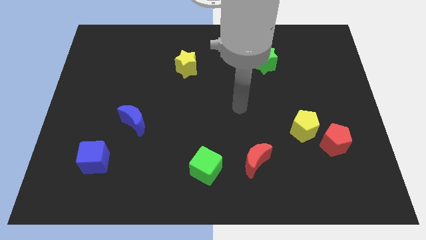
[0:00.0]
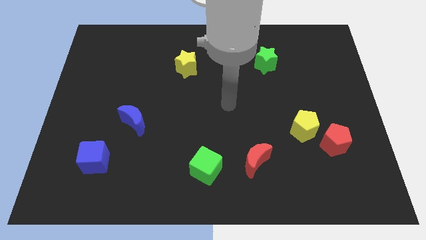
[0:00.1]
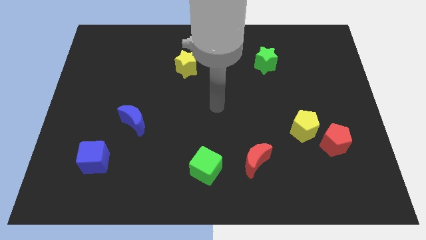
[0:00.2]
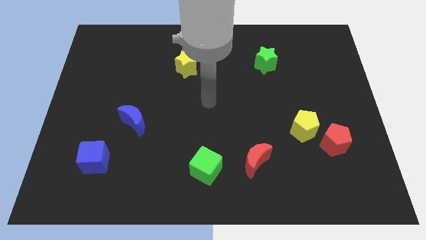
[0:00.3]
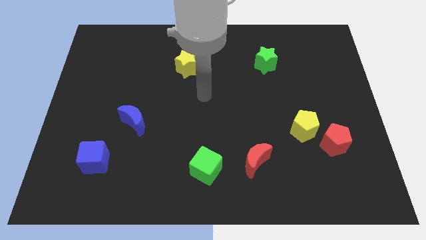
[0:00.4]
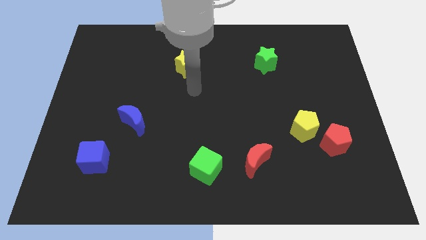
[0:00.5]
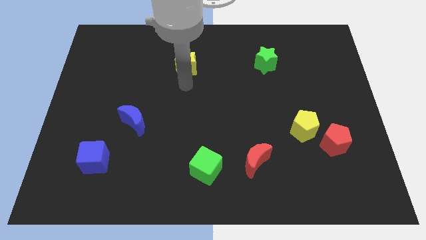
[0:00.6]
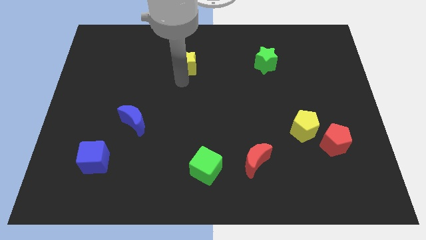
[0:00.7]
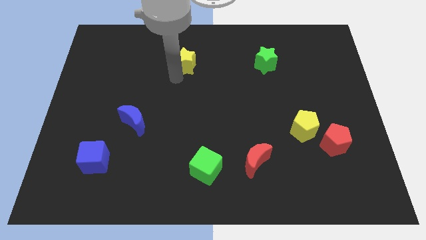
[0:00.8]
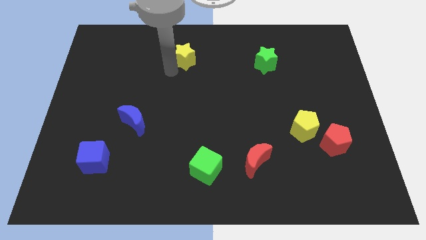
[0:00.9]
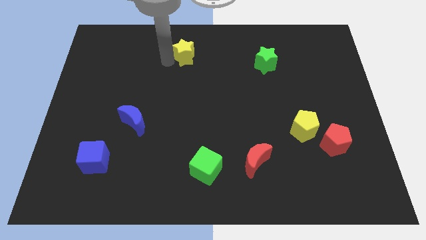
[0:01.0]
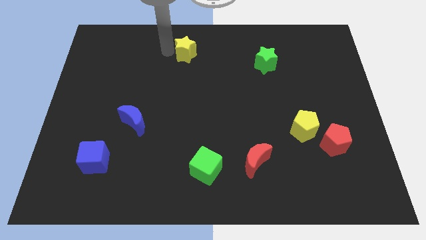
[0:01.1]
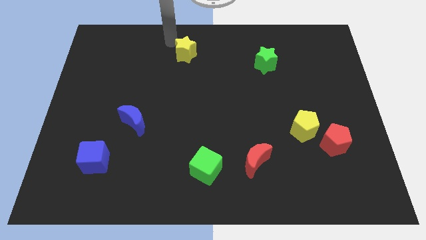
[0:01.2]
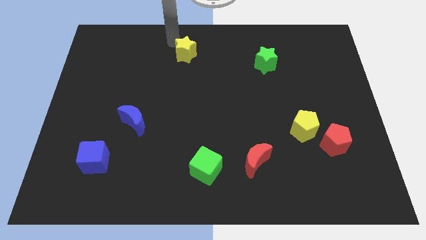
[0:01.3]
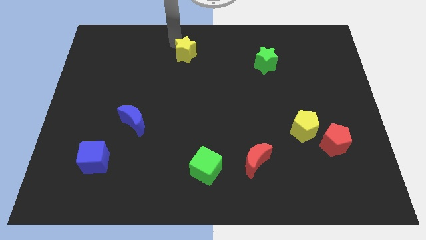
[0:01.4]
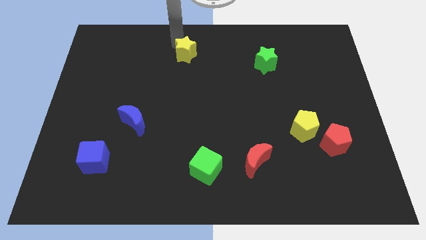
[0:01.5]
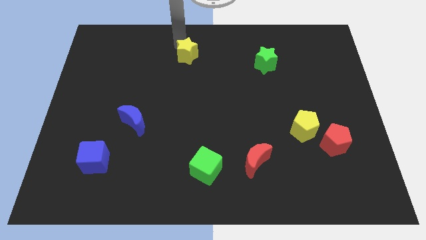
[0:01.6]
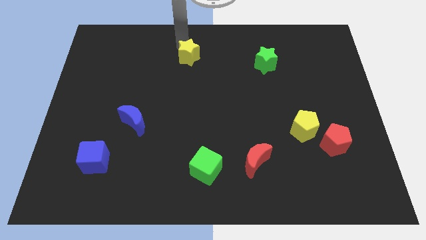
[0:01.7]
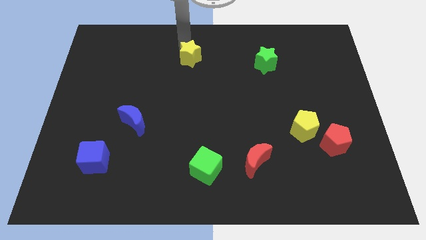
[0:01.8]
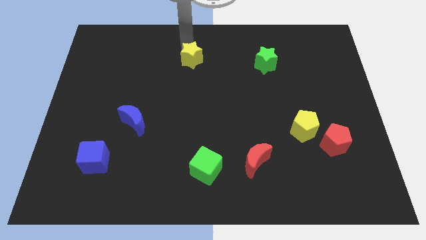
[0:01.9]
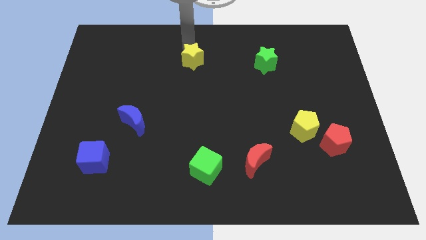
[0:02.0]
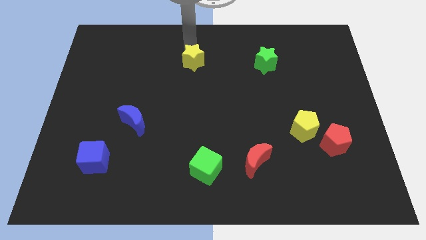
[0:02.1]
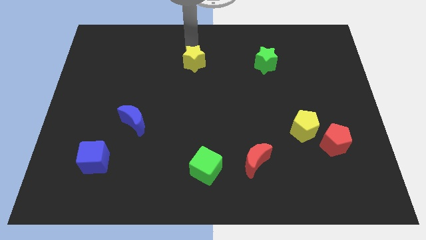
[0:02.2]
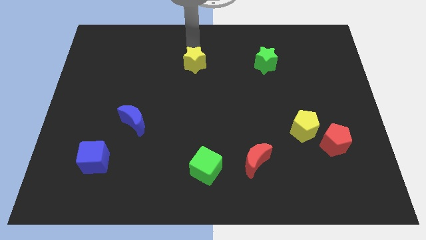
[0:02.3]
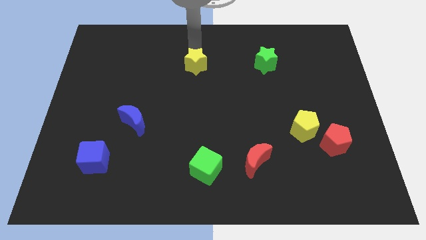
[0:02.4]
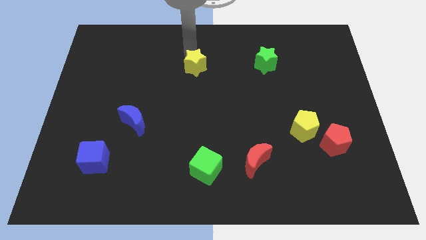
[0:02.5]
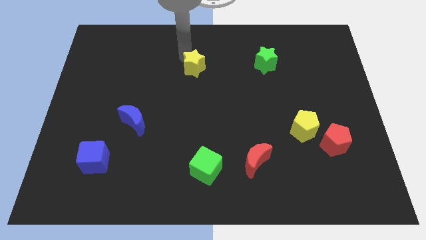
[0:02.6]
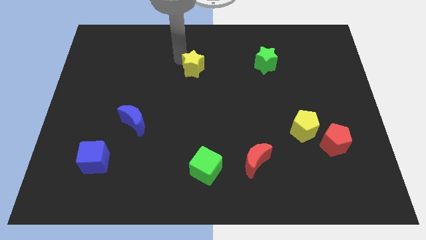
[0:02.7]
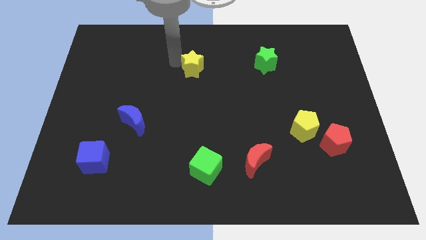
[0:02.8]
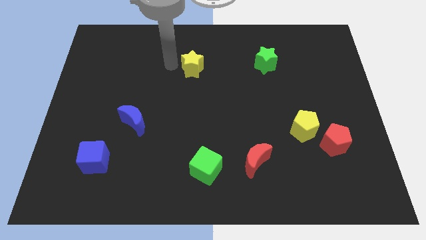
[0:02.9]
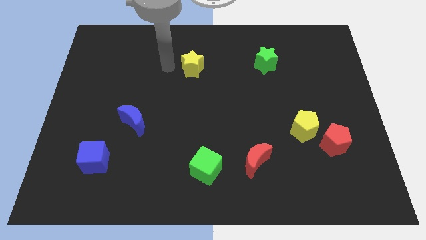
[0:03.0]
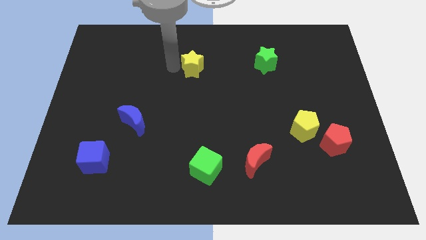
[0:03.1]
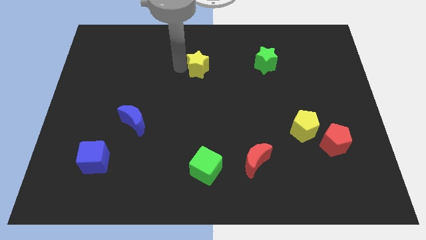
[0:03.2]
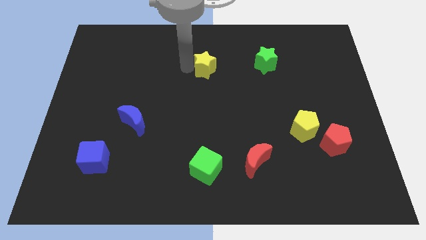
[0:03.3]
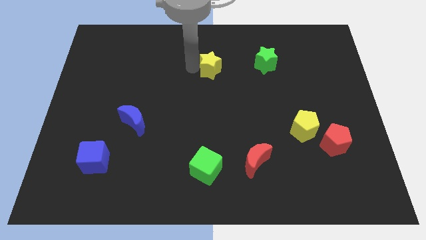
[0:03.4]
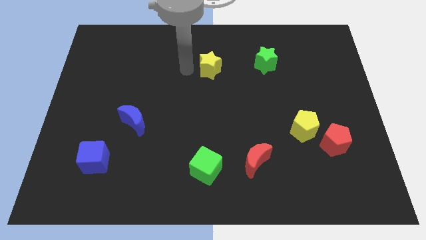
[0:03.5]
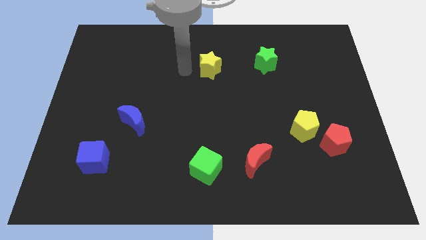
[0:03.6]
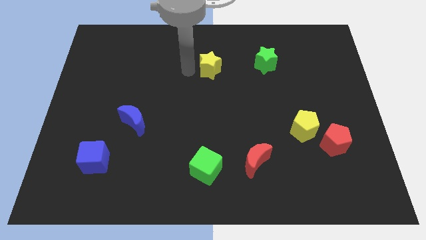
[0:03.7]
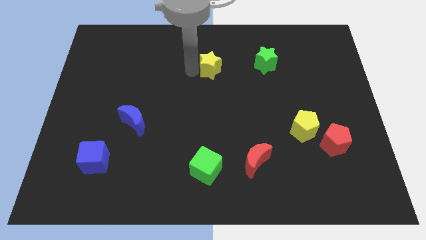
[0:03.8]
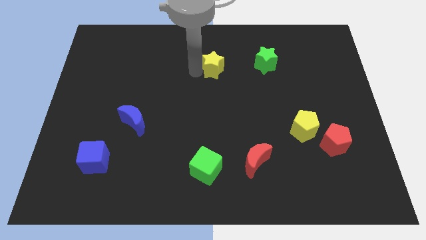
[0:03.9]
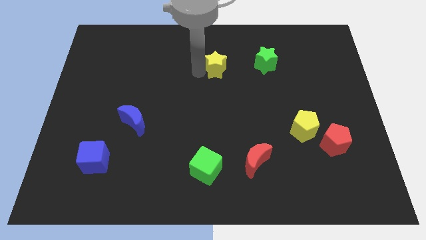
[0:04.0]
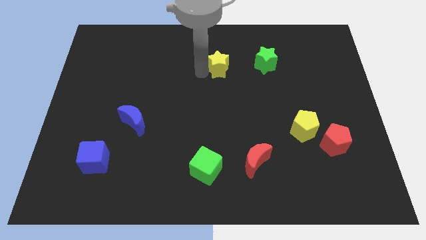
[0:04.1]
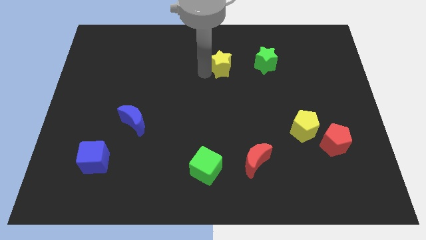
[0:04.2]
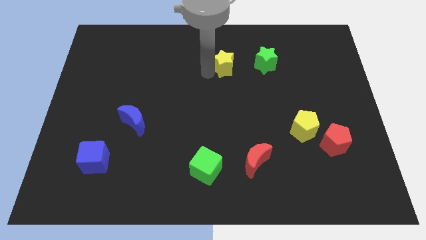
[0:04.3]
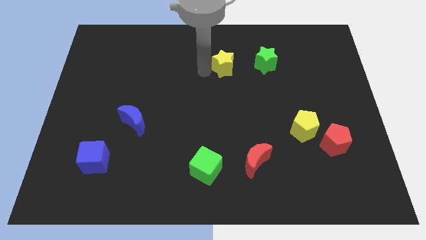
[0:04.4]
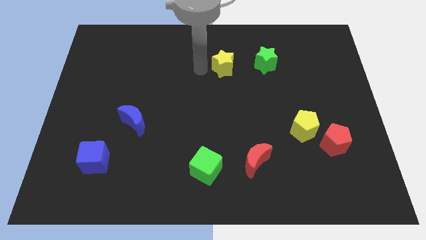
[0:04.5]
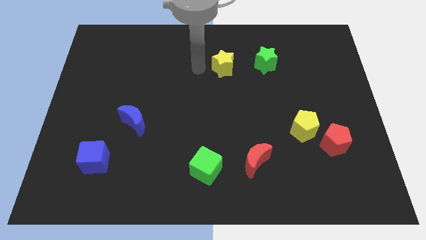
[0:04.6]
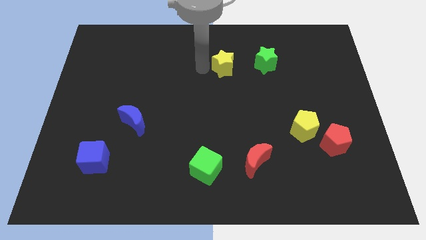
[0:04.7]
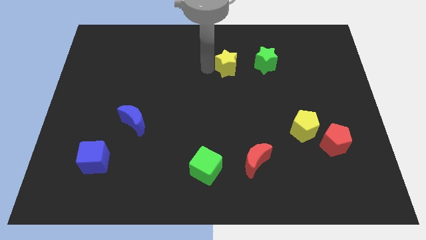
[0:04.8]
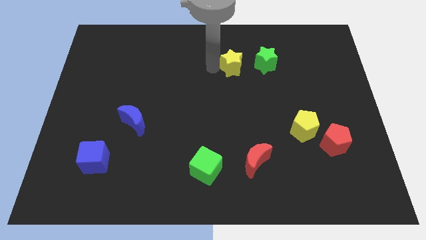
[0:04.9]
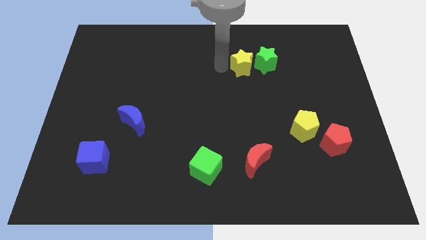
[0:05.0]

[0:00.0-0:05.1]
move the yellow star towards the green star

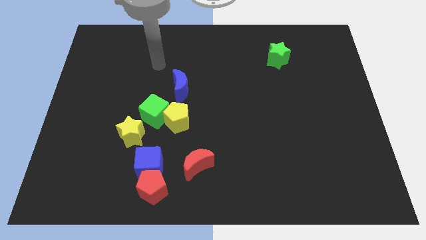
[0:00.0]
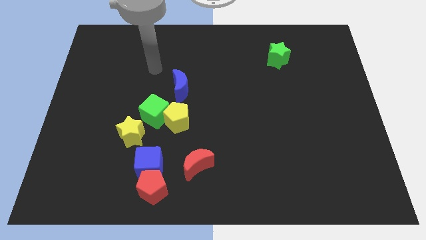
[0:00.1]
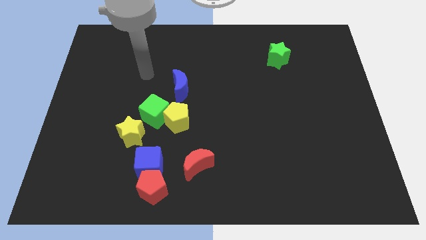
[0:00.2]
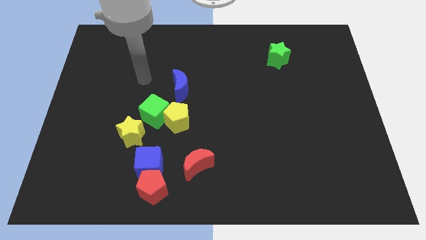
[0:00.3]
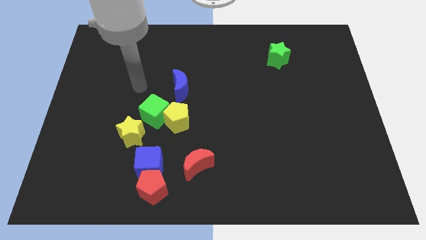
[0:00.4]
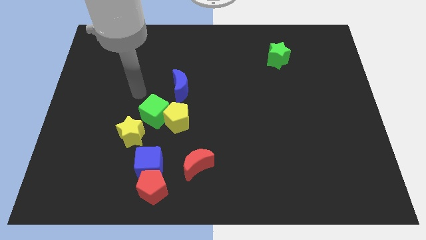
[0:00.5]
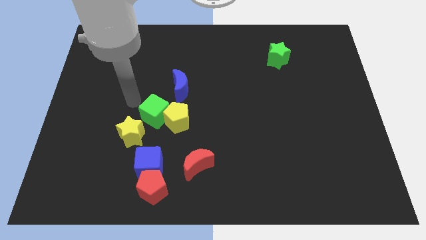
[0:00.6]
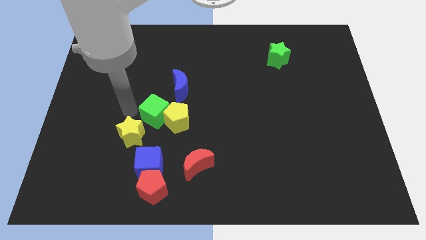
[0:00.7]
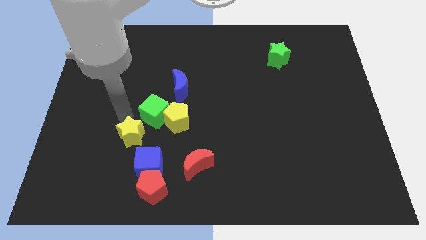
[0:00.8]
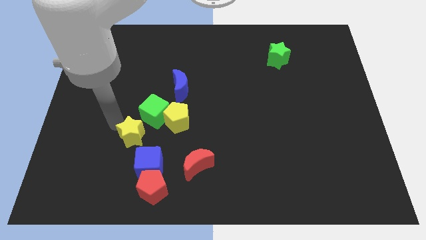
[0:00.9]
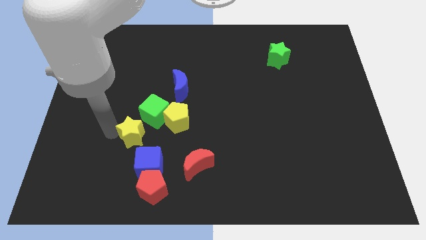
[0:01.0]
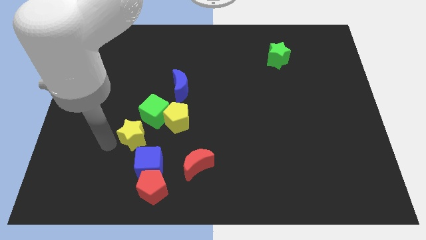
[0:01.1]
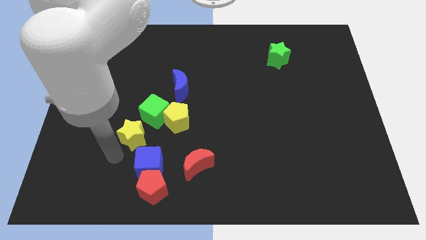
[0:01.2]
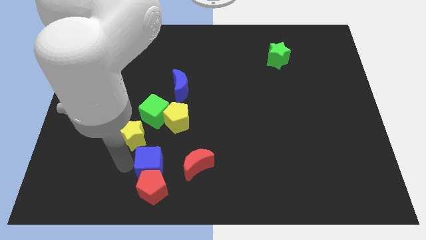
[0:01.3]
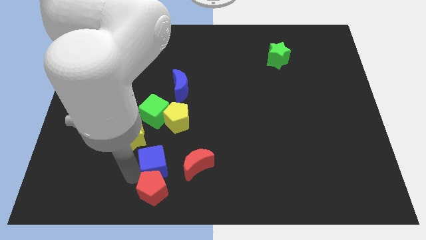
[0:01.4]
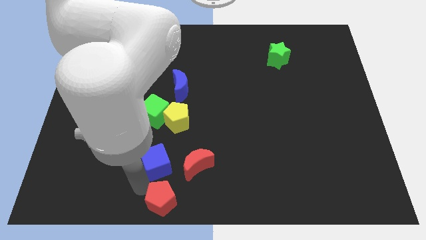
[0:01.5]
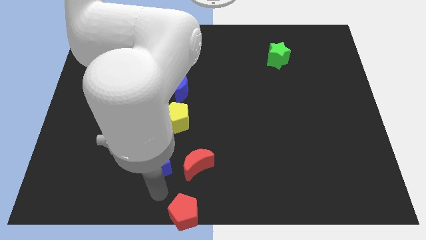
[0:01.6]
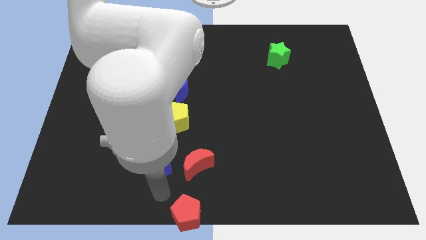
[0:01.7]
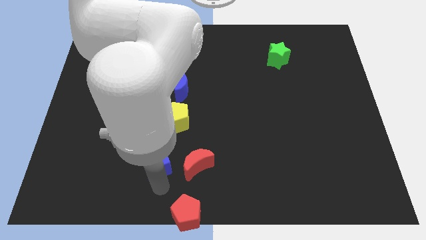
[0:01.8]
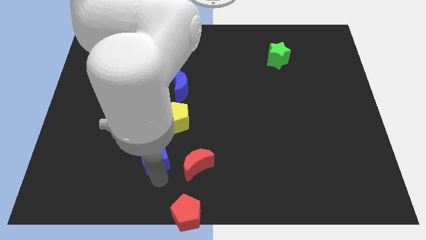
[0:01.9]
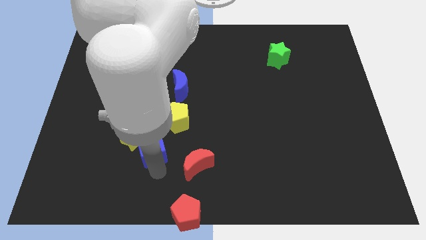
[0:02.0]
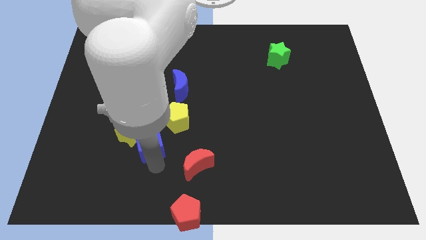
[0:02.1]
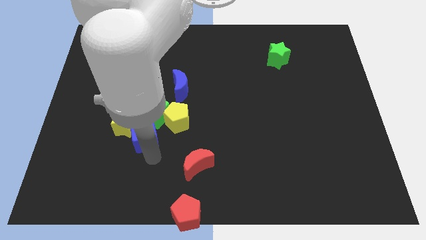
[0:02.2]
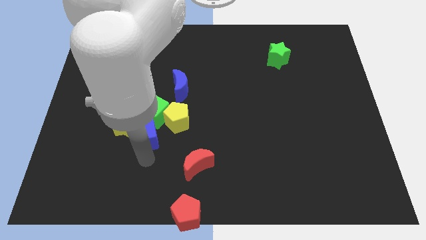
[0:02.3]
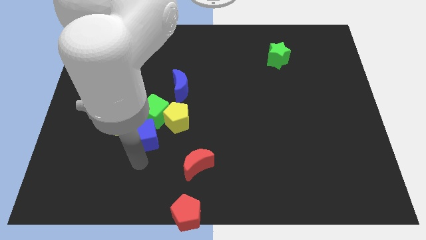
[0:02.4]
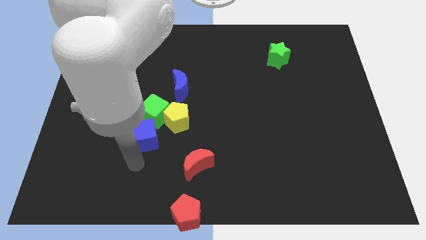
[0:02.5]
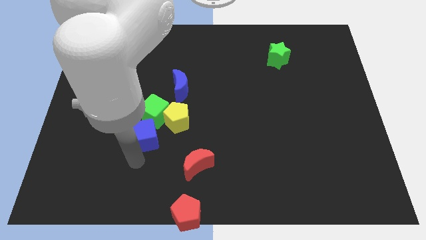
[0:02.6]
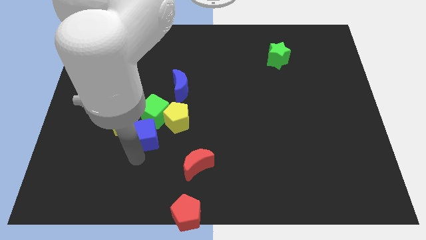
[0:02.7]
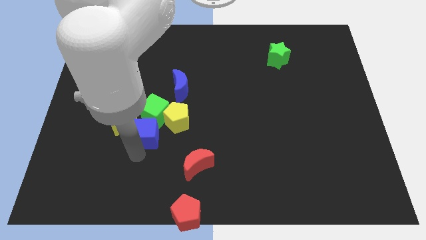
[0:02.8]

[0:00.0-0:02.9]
put the blue cube next to the green cube
